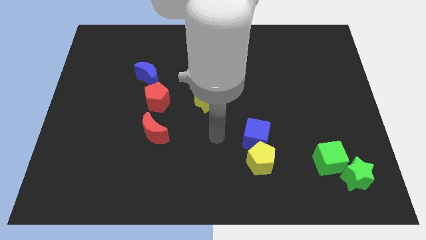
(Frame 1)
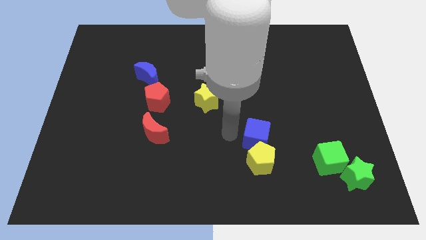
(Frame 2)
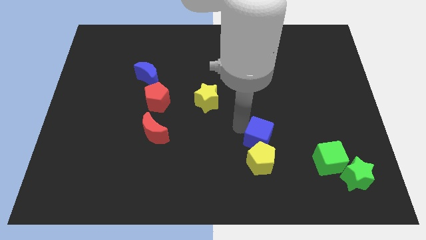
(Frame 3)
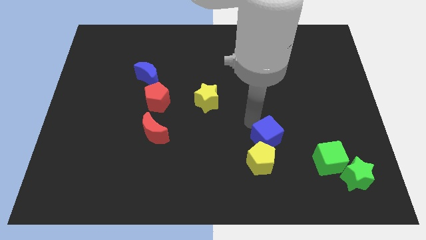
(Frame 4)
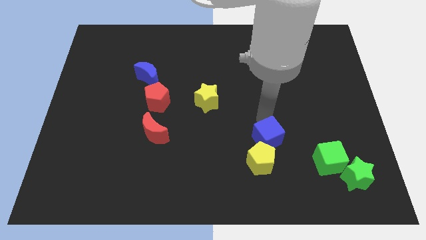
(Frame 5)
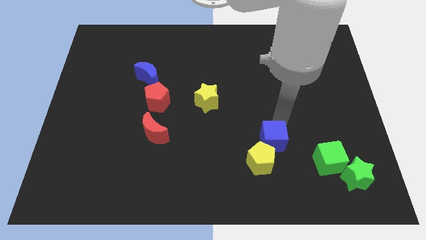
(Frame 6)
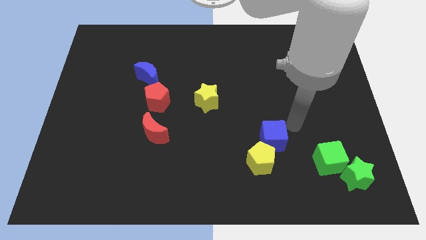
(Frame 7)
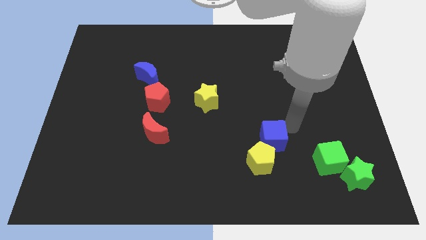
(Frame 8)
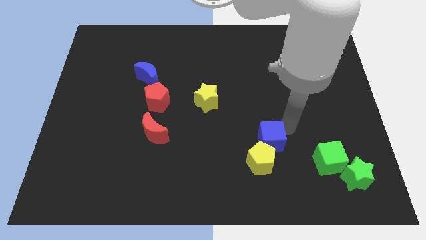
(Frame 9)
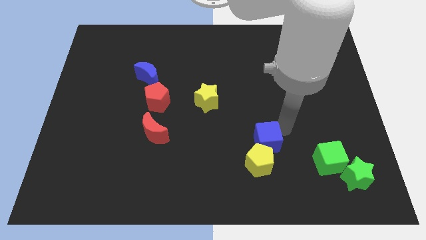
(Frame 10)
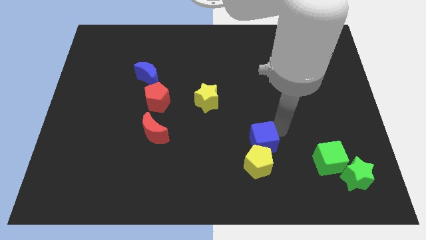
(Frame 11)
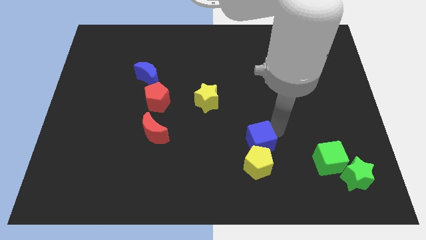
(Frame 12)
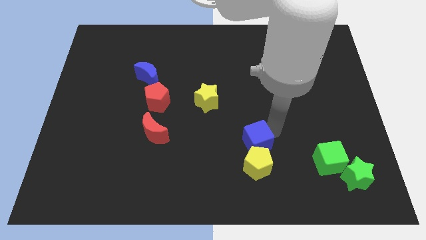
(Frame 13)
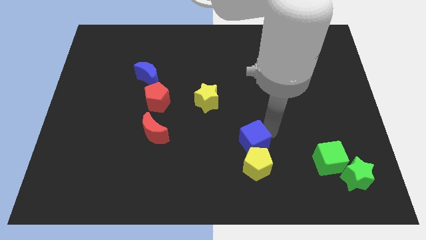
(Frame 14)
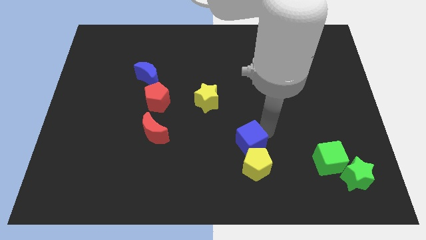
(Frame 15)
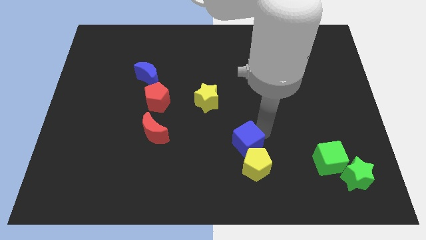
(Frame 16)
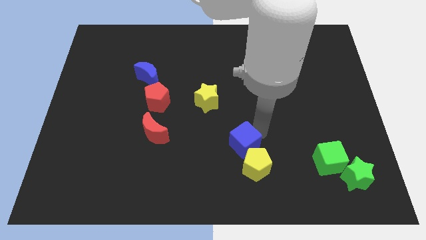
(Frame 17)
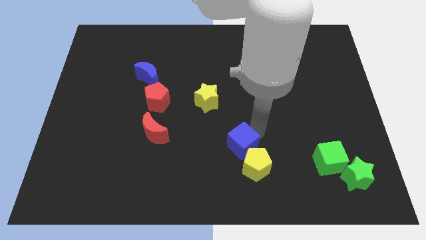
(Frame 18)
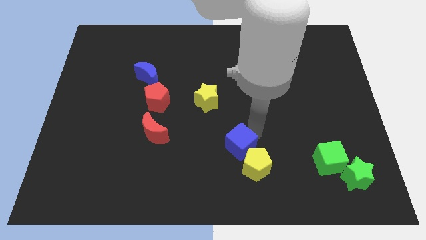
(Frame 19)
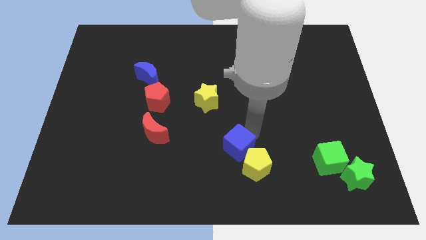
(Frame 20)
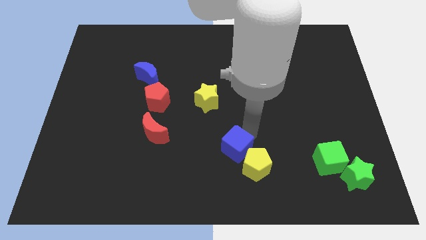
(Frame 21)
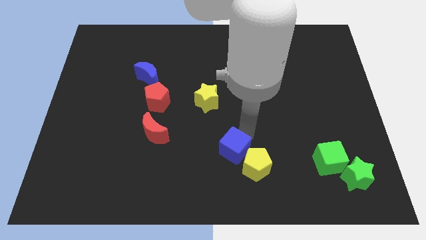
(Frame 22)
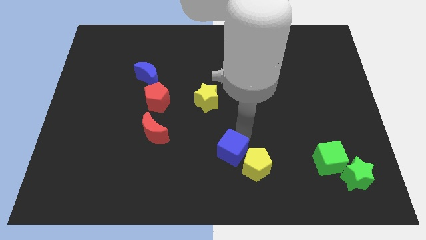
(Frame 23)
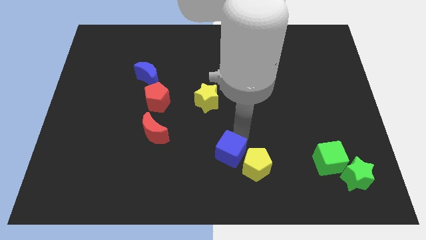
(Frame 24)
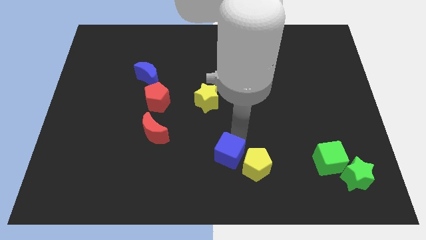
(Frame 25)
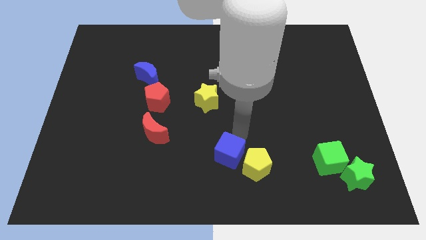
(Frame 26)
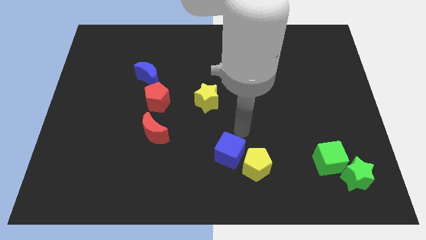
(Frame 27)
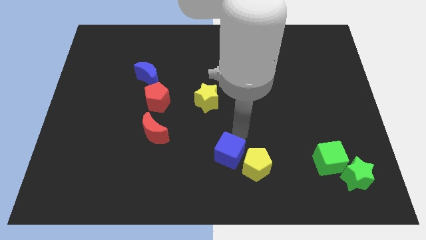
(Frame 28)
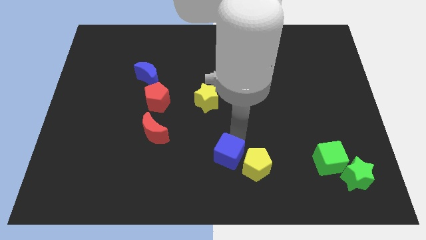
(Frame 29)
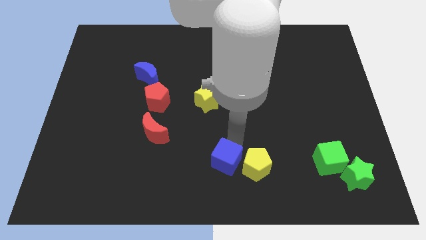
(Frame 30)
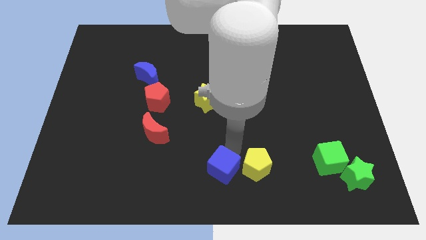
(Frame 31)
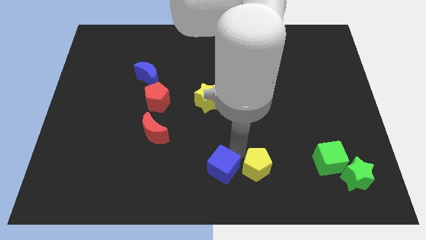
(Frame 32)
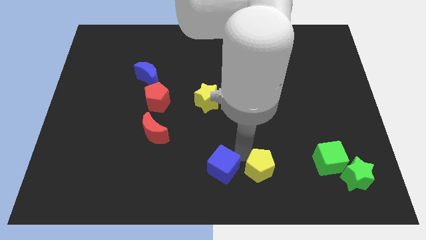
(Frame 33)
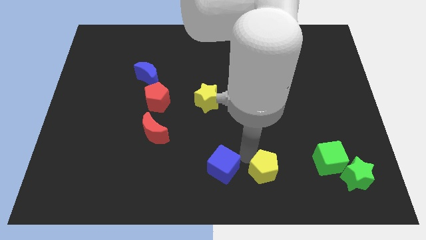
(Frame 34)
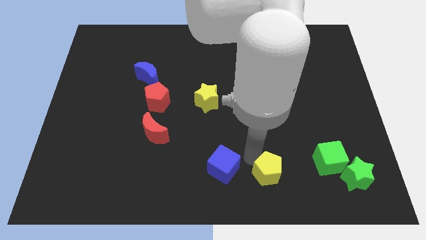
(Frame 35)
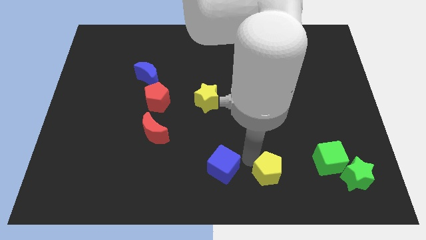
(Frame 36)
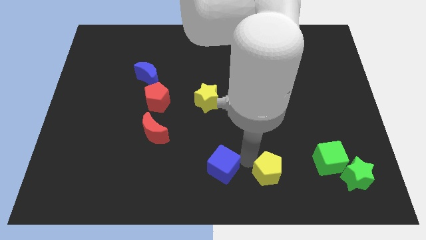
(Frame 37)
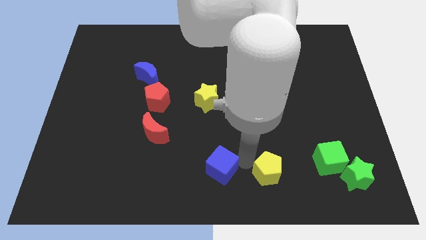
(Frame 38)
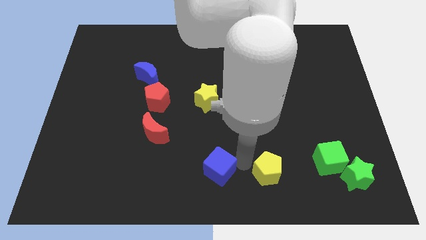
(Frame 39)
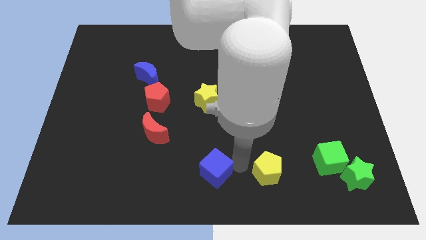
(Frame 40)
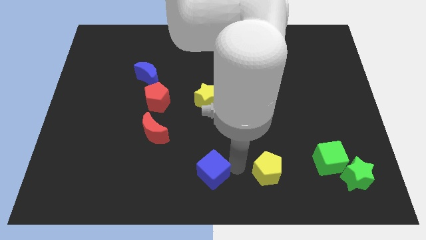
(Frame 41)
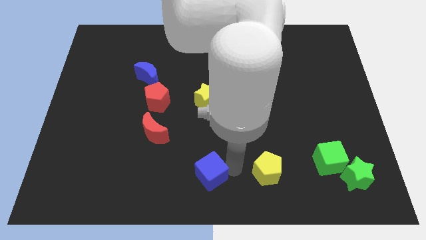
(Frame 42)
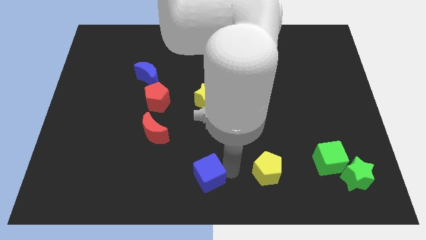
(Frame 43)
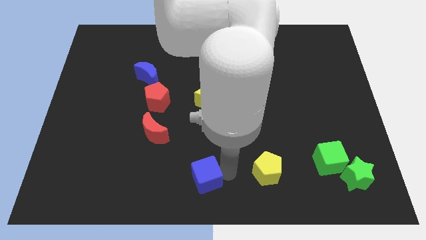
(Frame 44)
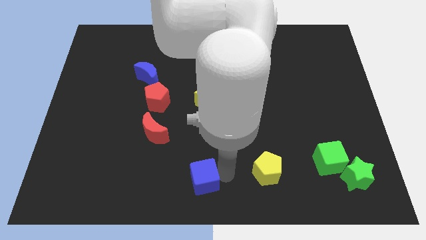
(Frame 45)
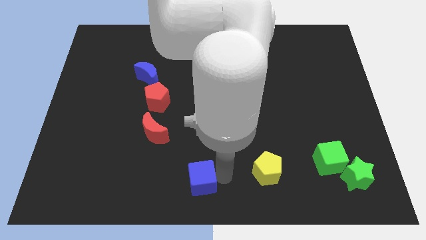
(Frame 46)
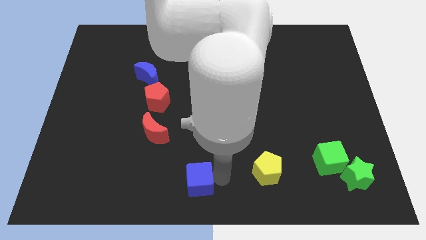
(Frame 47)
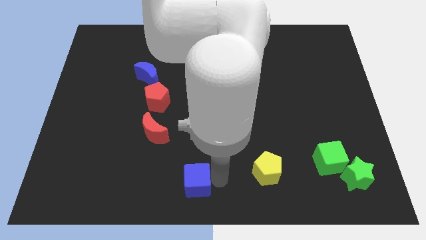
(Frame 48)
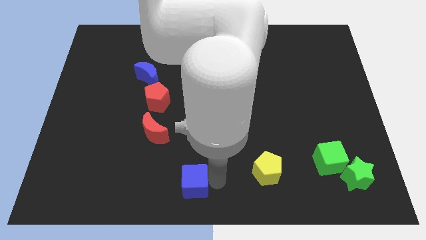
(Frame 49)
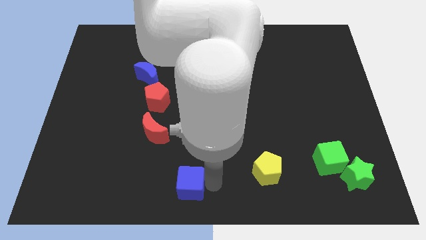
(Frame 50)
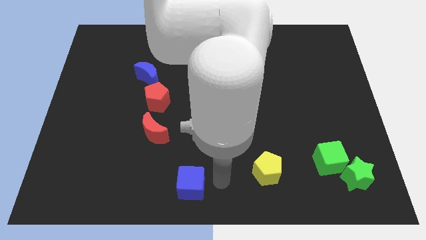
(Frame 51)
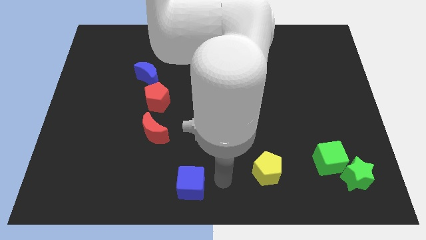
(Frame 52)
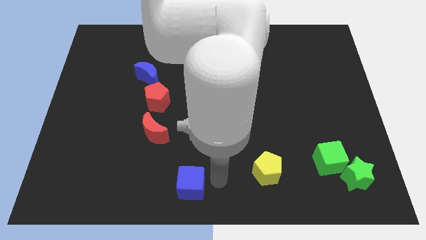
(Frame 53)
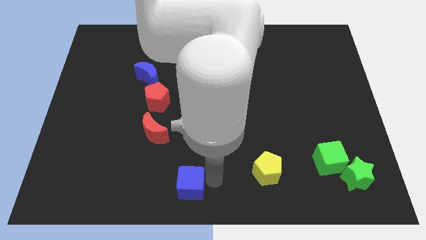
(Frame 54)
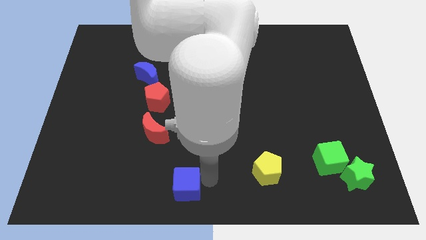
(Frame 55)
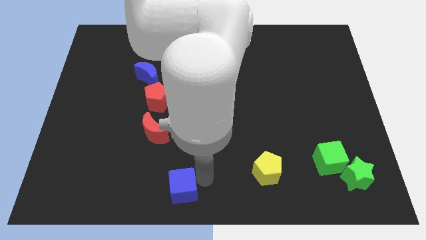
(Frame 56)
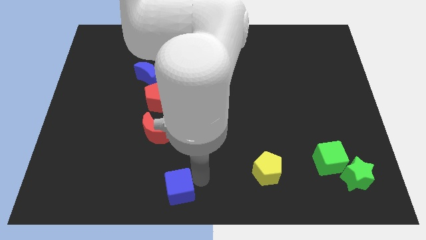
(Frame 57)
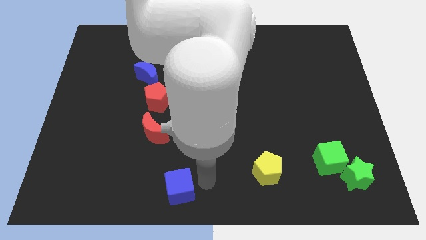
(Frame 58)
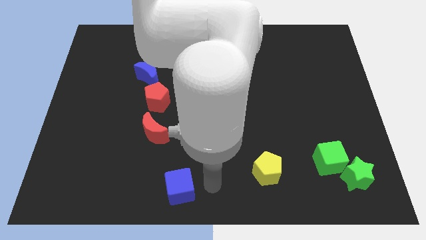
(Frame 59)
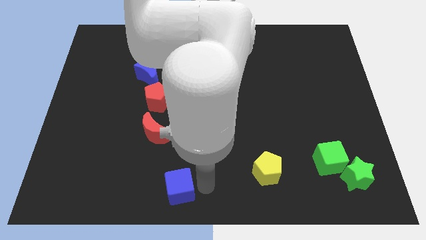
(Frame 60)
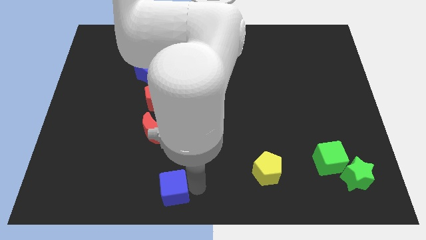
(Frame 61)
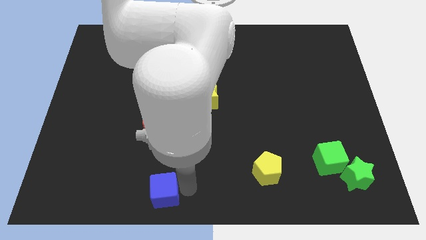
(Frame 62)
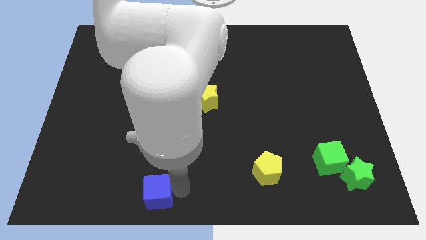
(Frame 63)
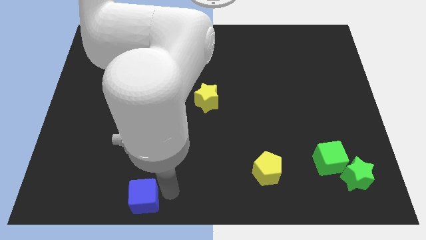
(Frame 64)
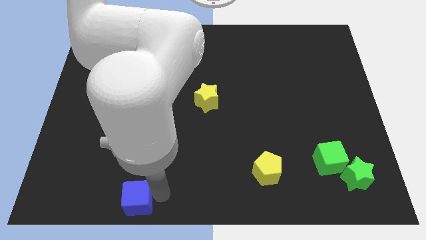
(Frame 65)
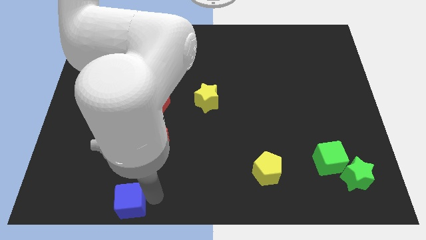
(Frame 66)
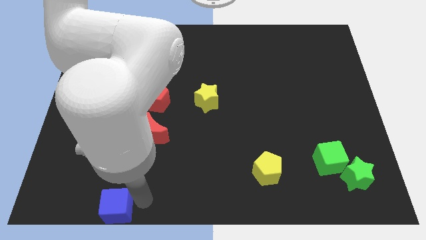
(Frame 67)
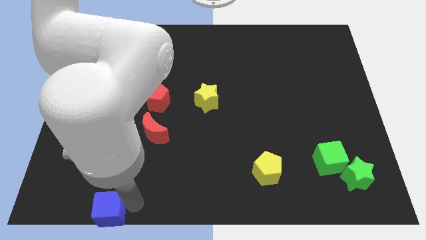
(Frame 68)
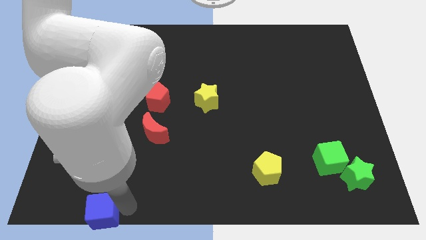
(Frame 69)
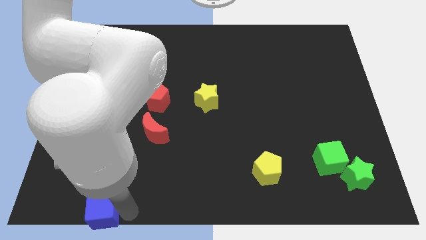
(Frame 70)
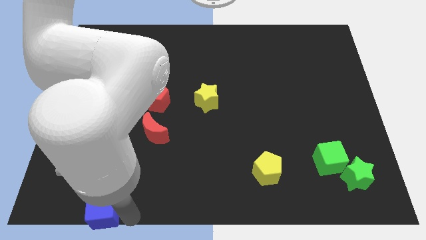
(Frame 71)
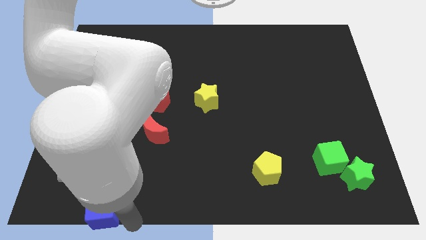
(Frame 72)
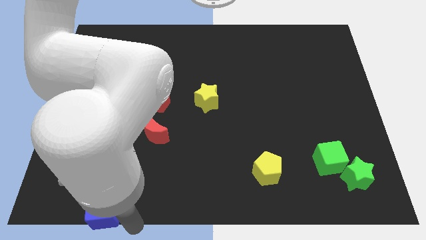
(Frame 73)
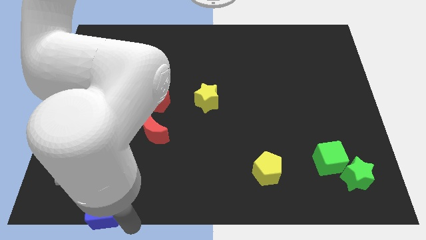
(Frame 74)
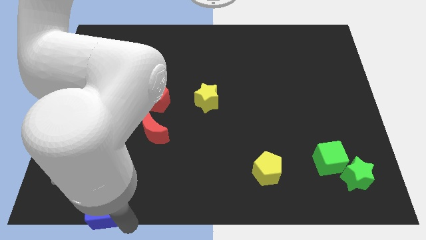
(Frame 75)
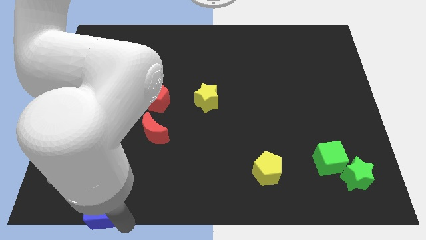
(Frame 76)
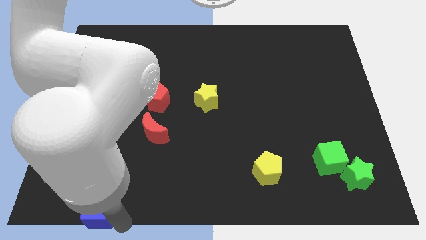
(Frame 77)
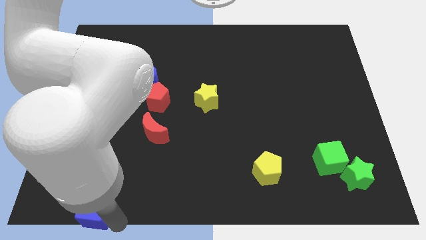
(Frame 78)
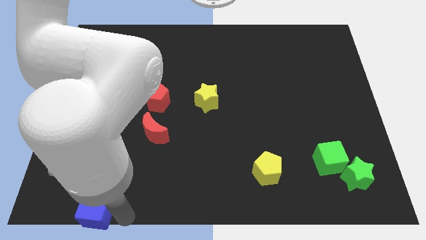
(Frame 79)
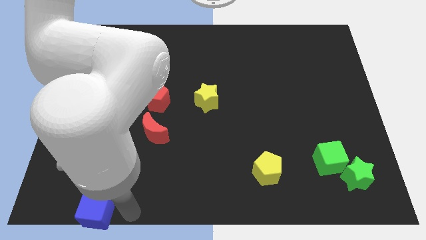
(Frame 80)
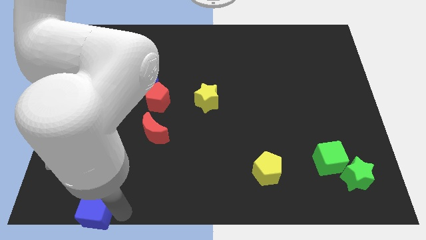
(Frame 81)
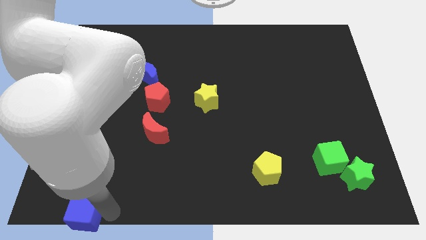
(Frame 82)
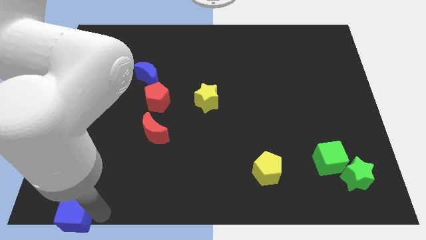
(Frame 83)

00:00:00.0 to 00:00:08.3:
move the blue cube to the bottom left corner
